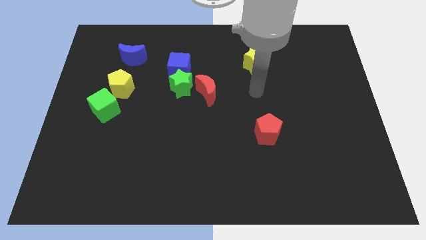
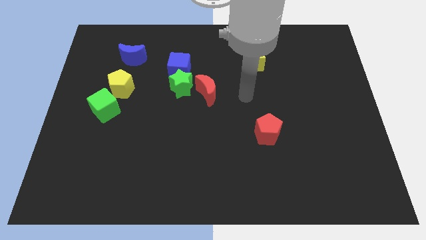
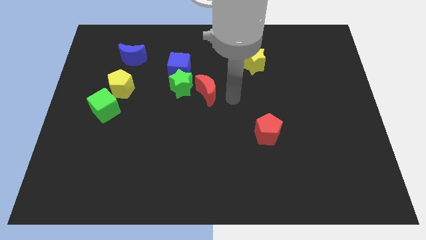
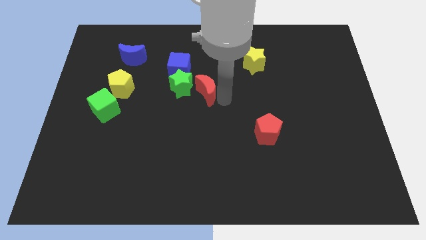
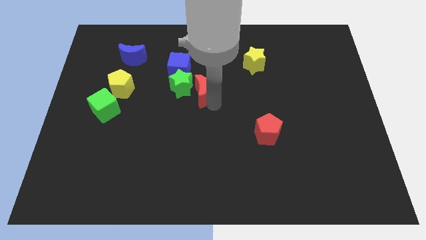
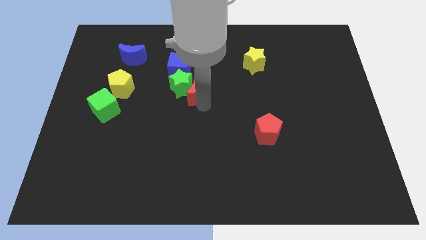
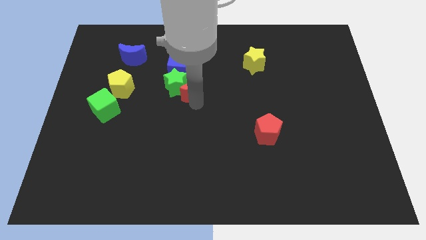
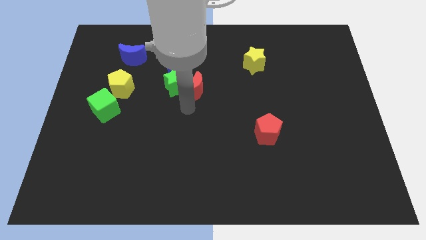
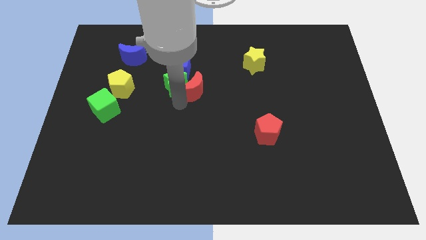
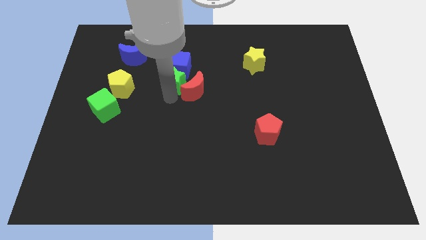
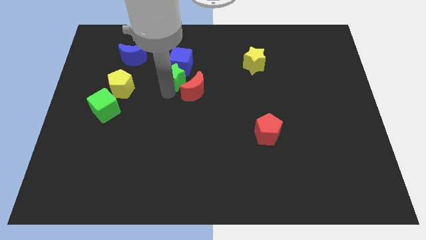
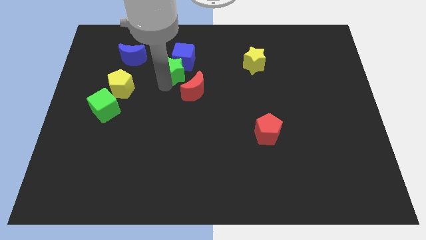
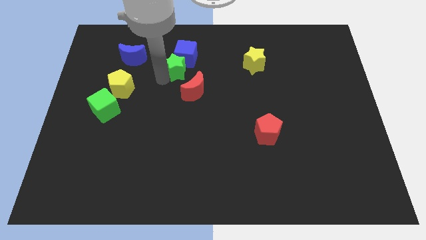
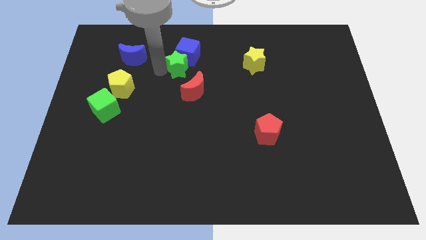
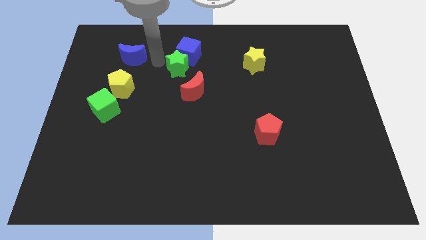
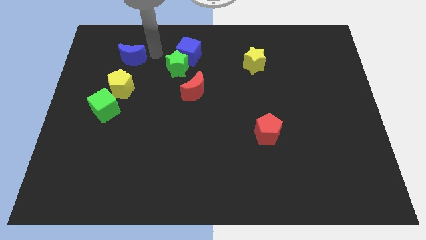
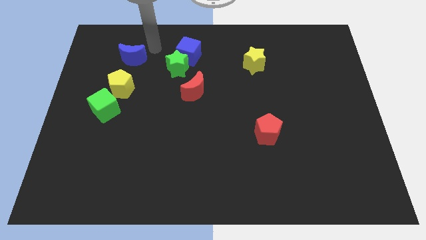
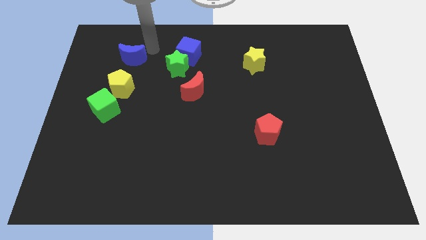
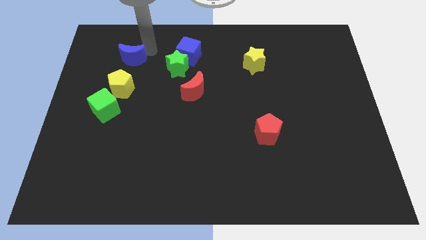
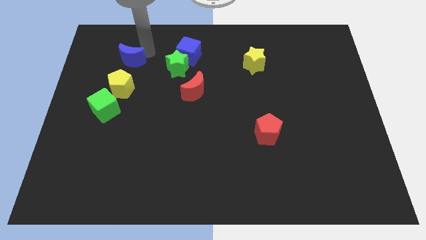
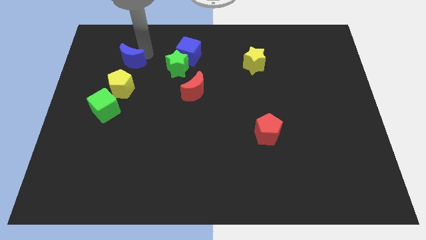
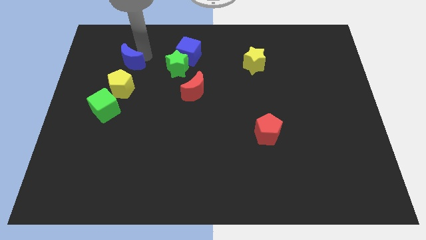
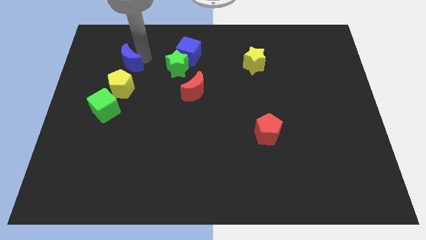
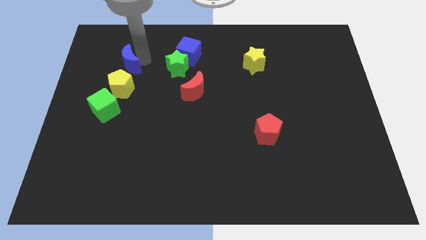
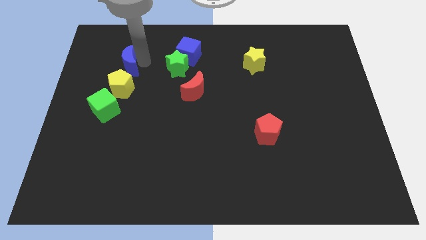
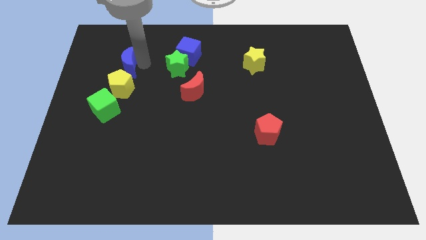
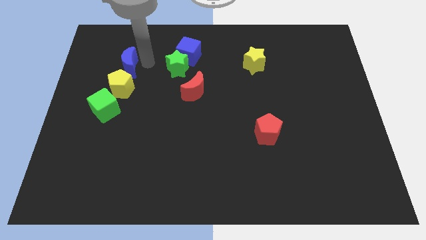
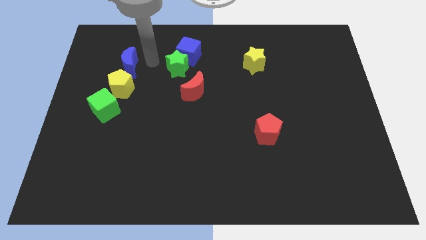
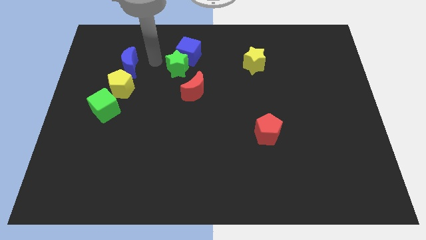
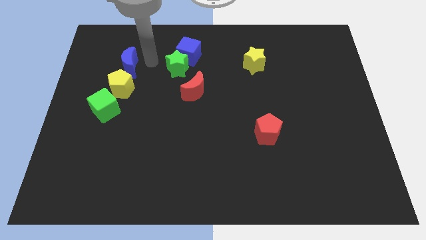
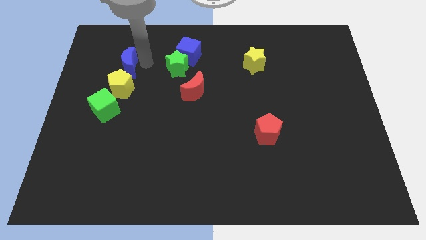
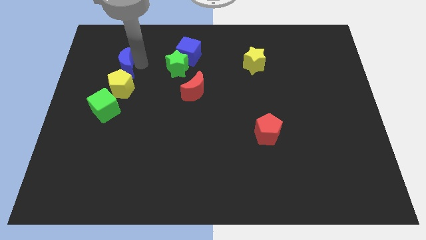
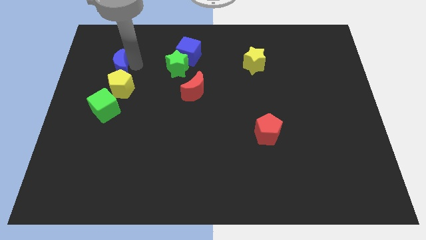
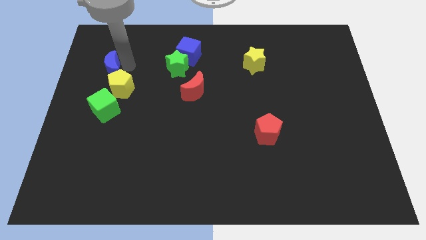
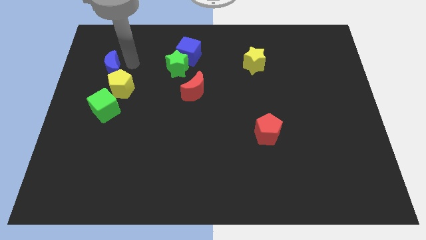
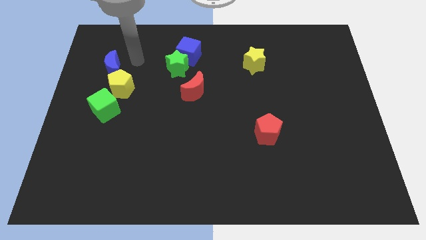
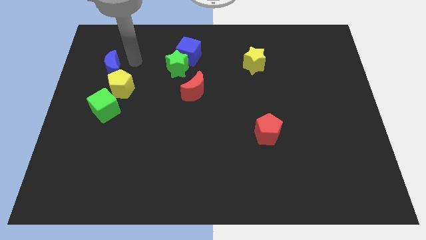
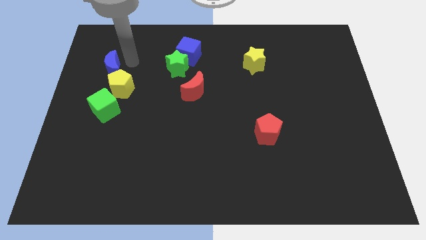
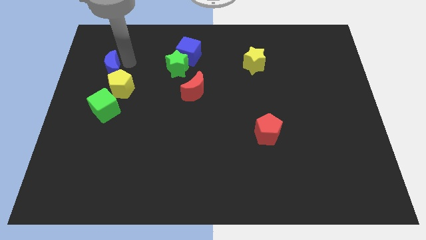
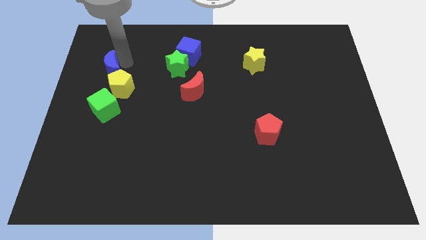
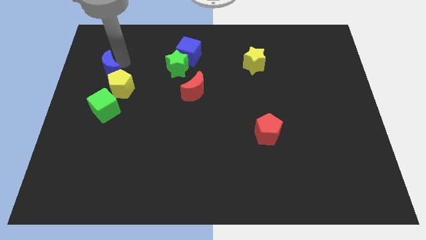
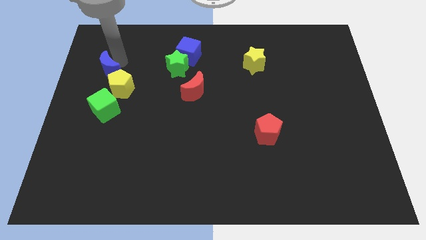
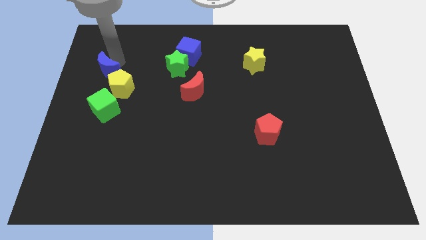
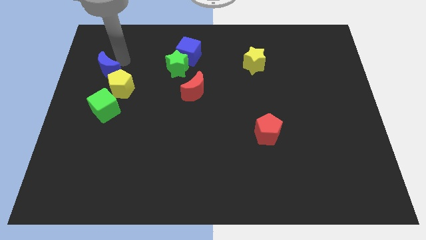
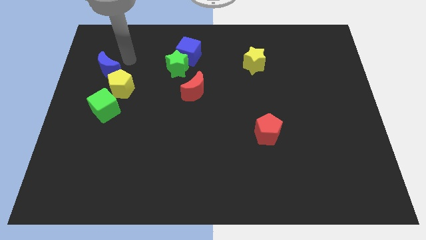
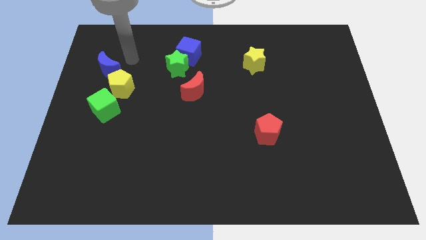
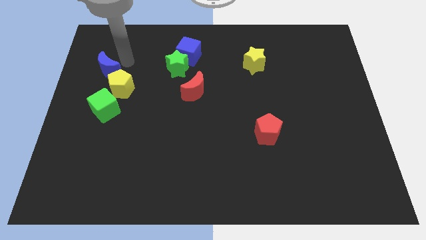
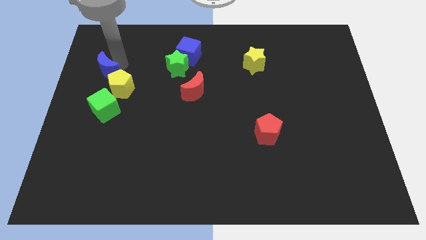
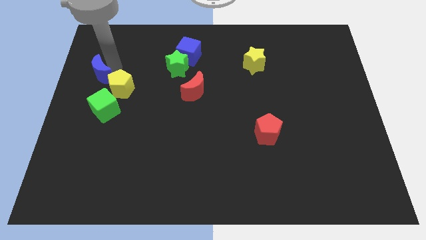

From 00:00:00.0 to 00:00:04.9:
slide the blue moon to the left side

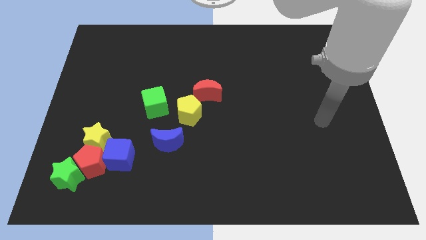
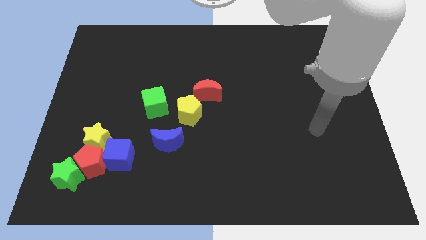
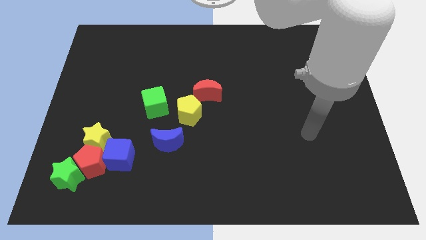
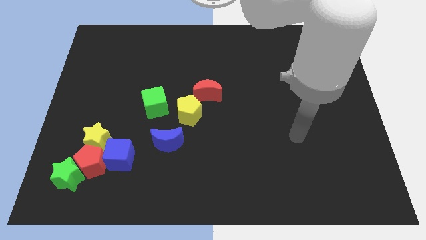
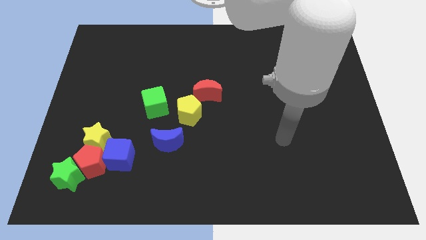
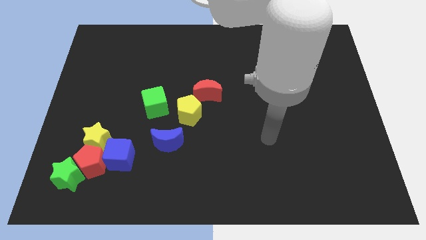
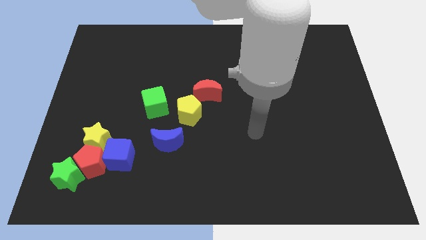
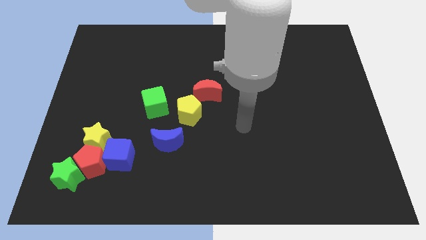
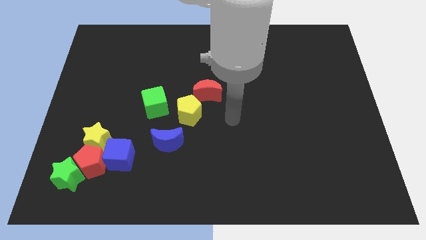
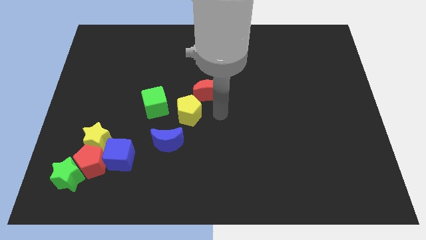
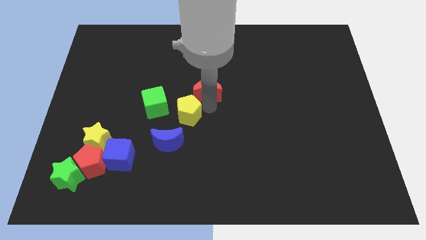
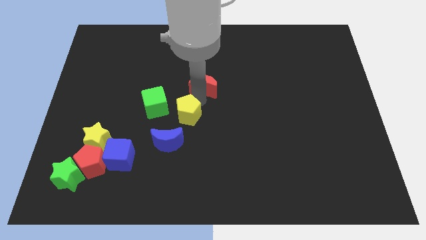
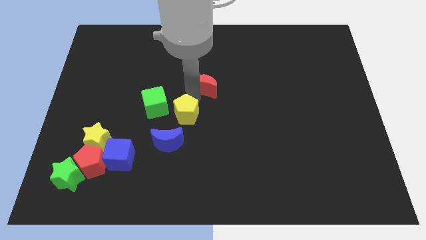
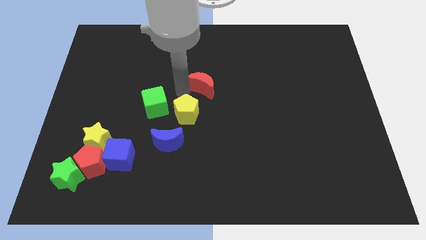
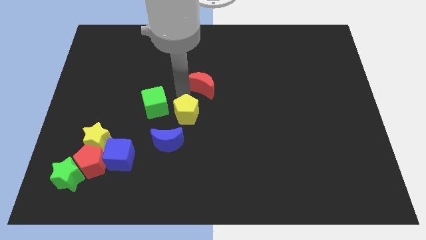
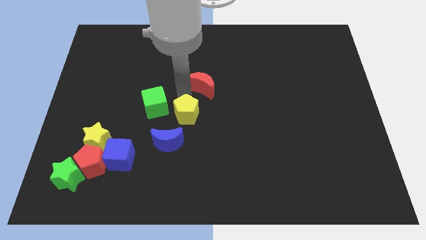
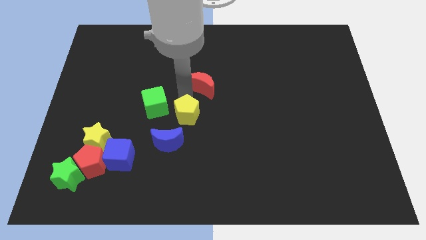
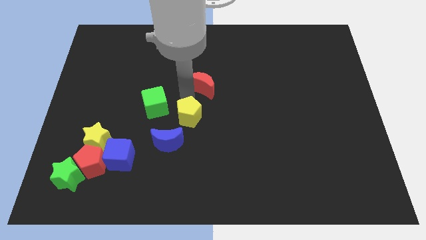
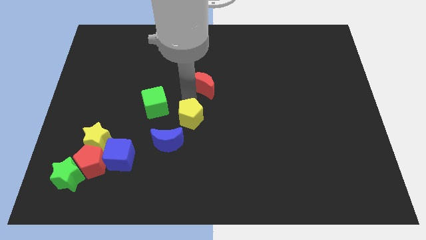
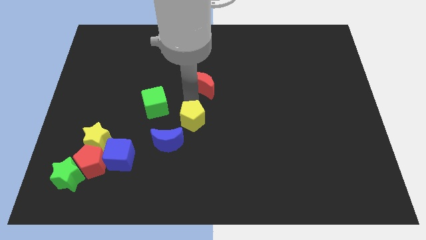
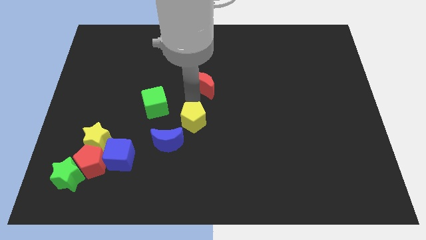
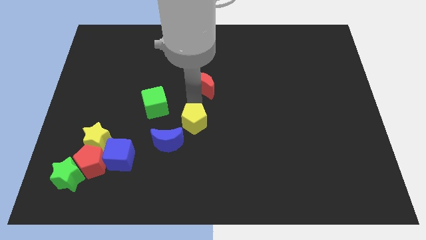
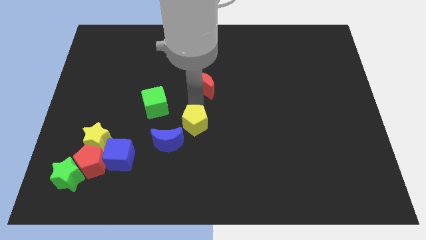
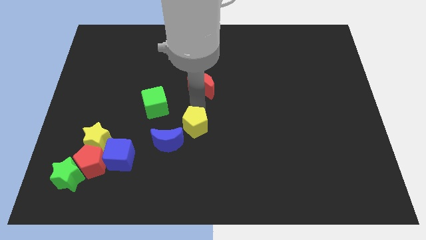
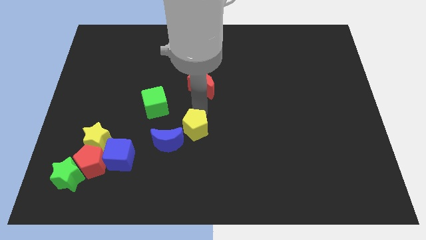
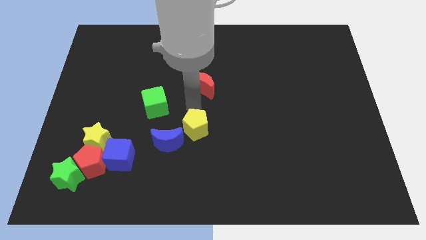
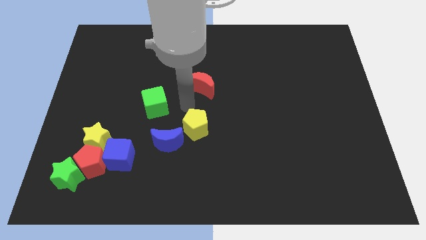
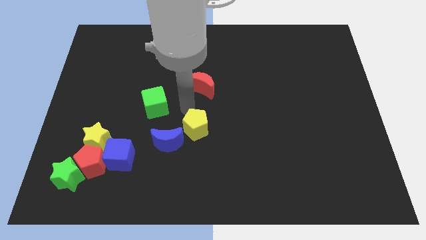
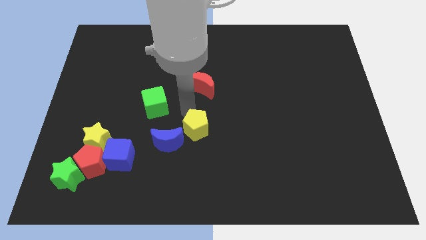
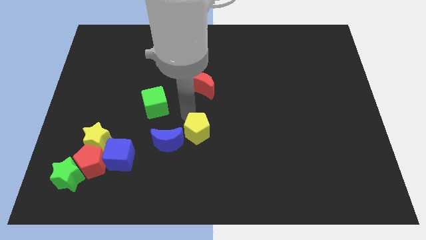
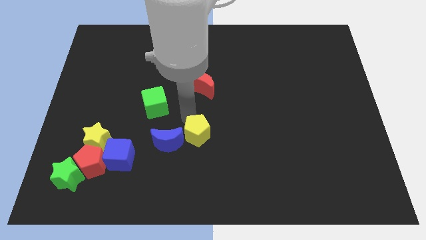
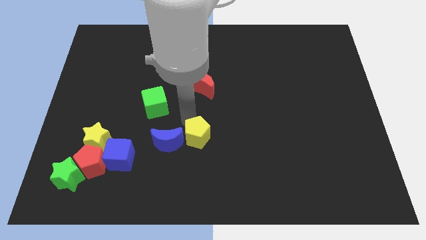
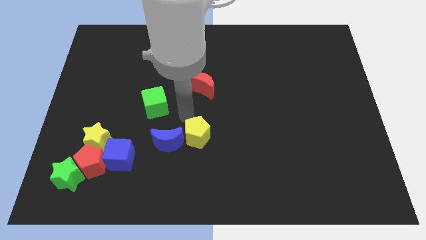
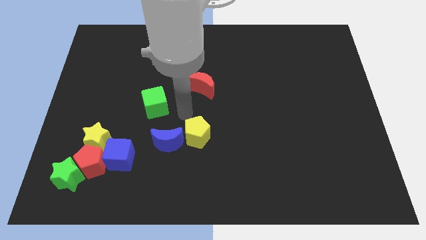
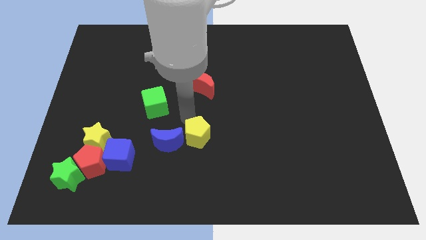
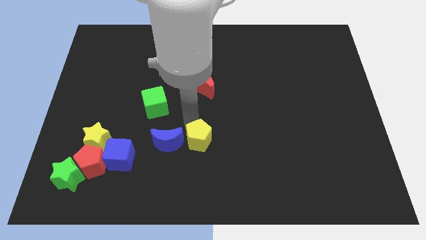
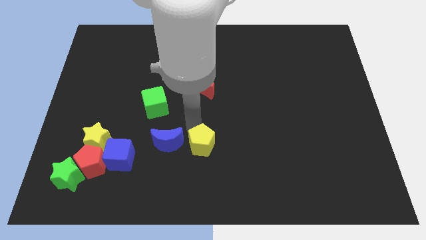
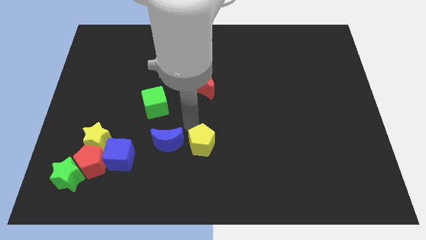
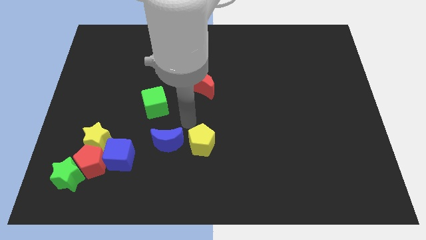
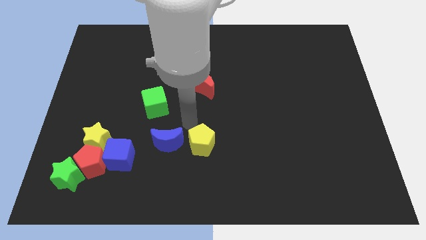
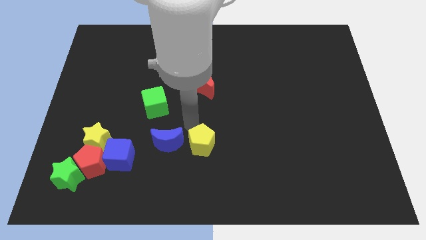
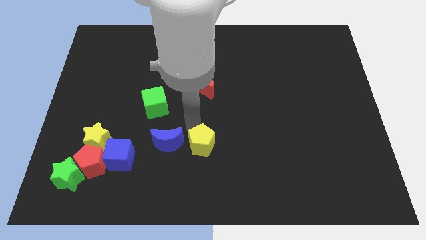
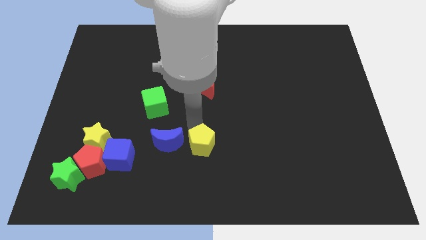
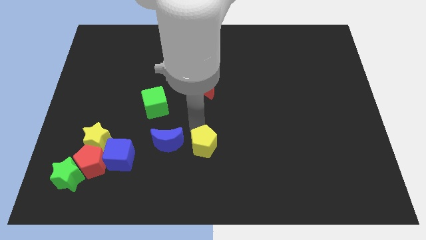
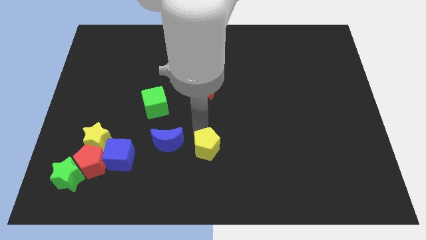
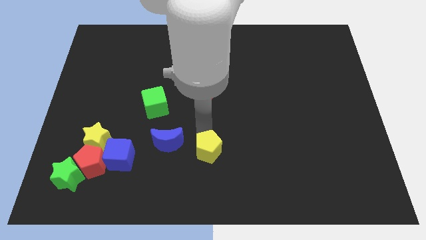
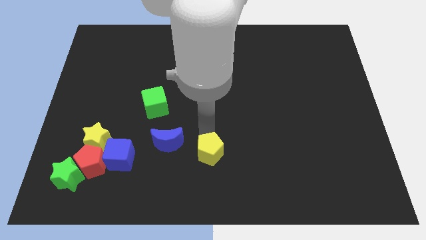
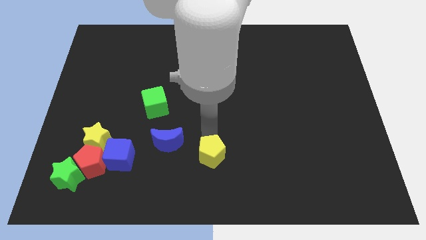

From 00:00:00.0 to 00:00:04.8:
move the yellow pentagon to the bottom
